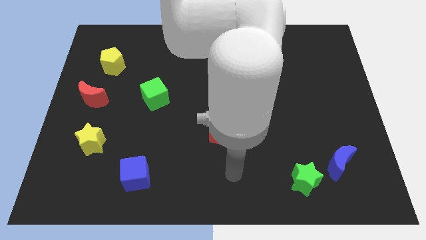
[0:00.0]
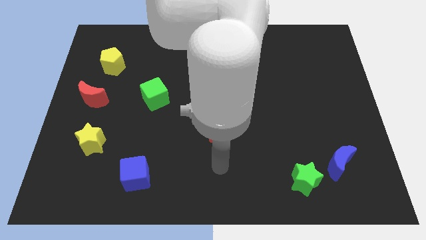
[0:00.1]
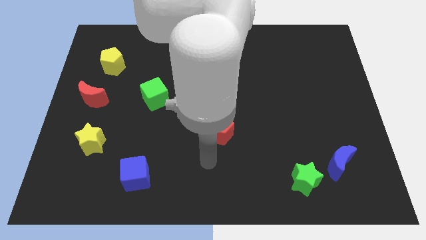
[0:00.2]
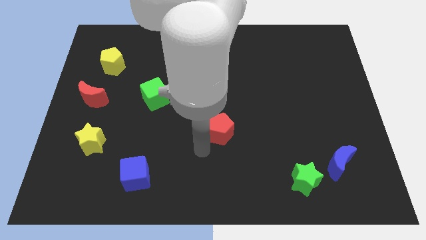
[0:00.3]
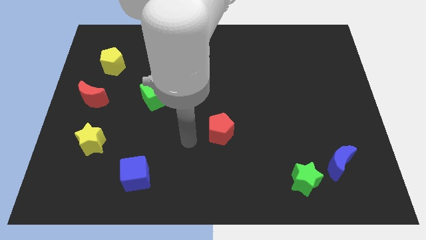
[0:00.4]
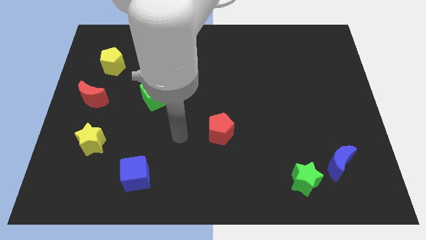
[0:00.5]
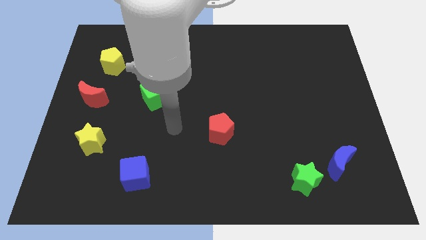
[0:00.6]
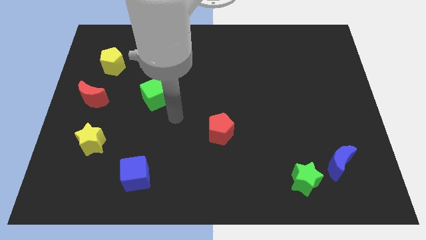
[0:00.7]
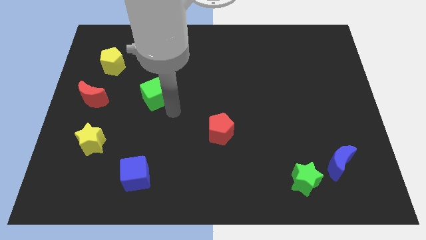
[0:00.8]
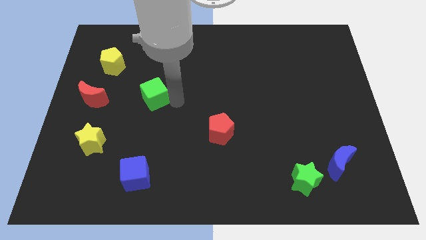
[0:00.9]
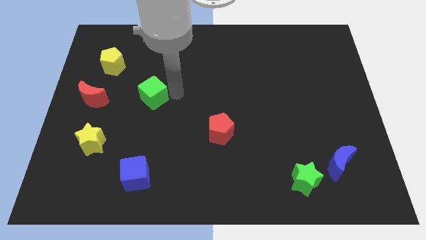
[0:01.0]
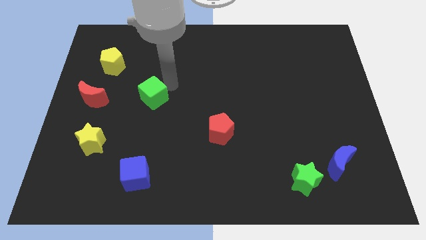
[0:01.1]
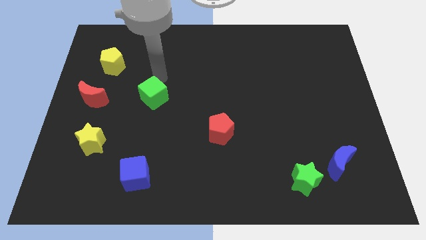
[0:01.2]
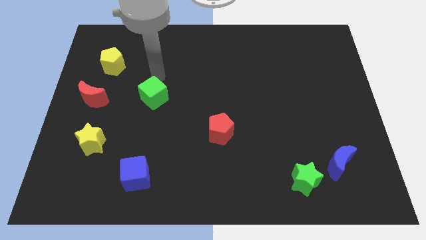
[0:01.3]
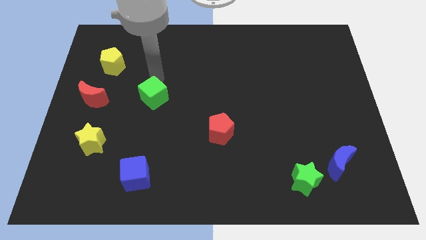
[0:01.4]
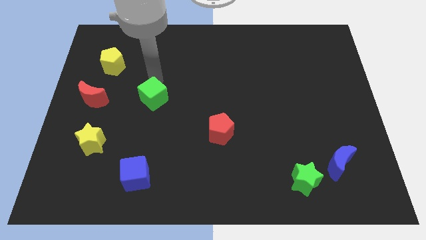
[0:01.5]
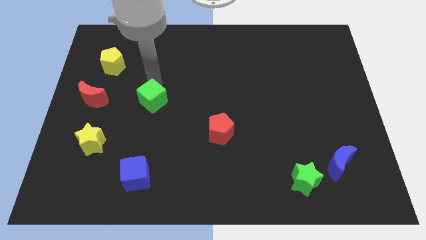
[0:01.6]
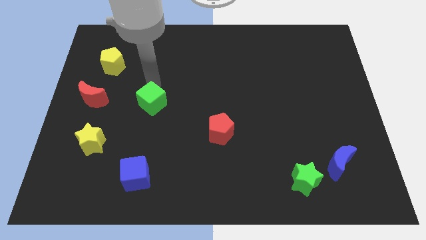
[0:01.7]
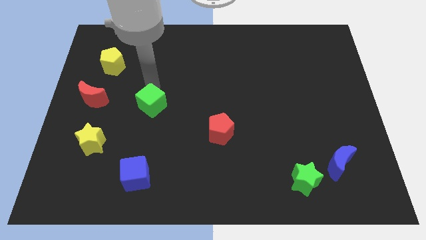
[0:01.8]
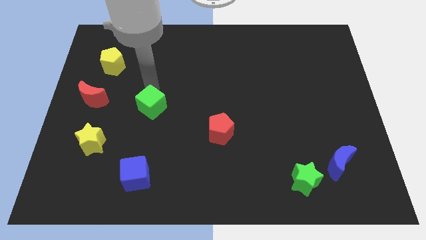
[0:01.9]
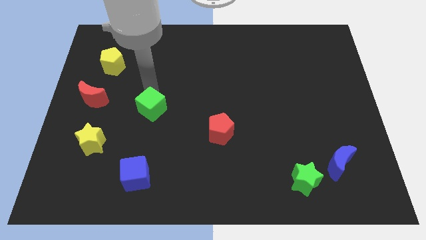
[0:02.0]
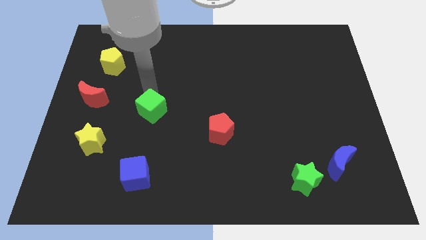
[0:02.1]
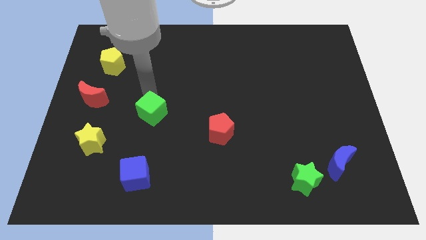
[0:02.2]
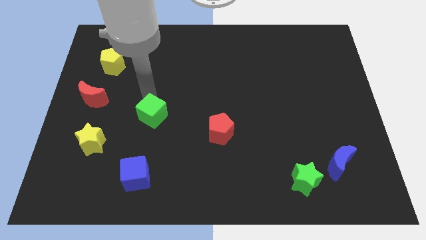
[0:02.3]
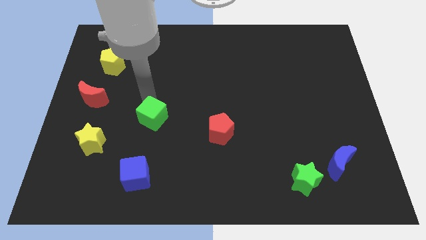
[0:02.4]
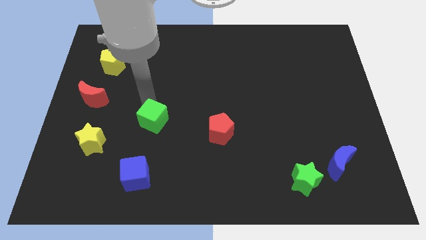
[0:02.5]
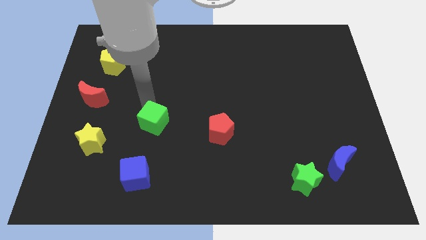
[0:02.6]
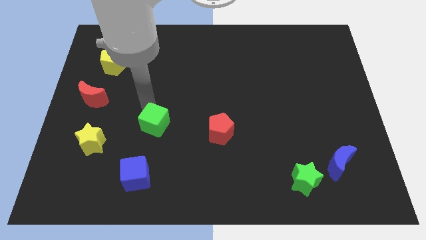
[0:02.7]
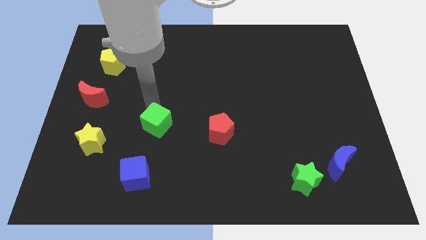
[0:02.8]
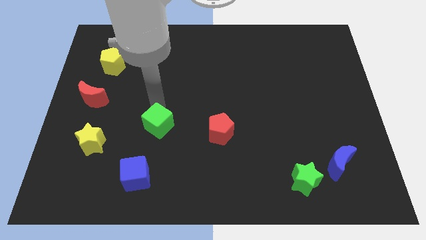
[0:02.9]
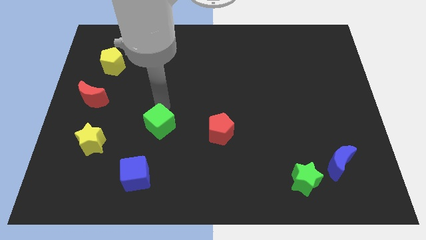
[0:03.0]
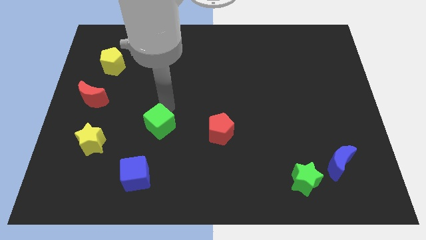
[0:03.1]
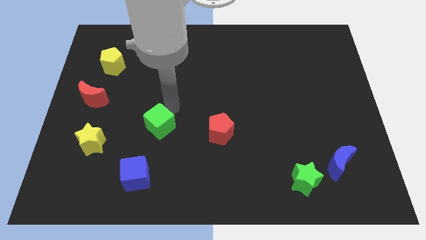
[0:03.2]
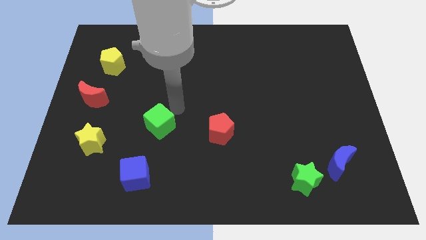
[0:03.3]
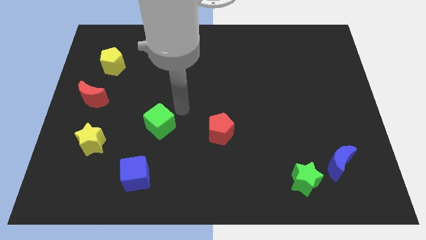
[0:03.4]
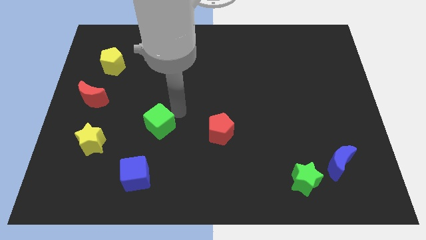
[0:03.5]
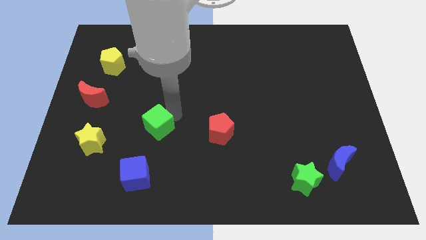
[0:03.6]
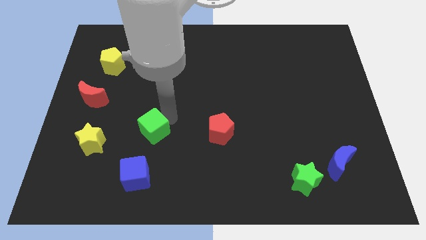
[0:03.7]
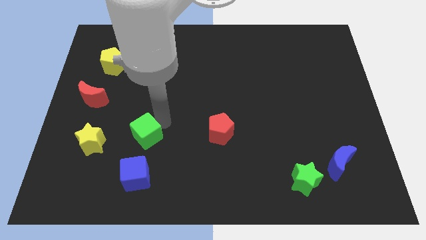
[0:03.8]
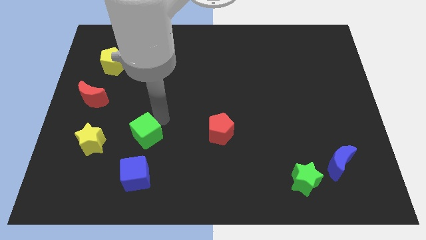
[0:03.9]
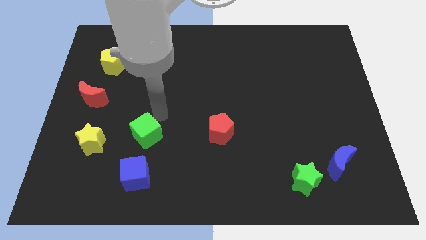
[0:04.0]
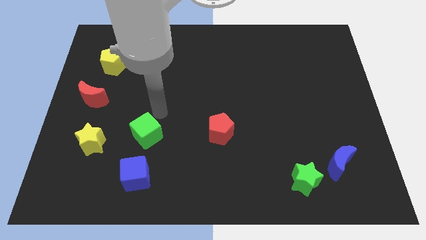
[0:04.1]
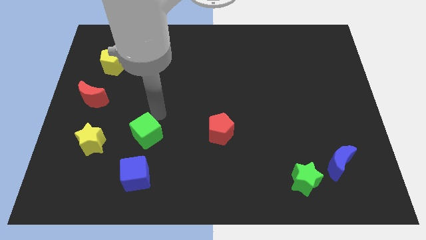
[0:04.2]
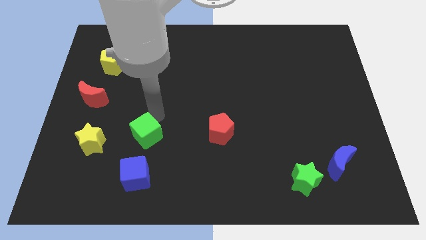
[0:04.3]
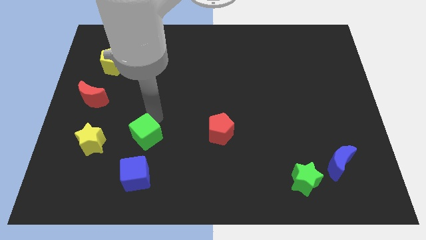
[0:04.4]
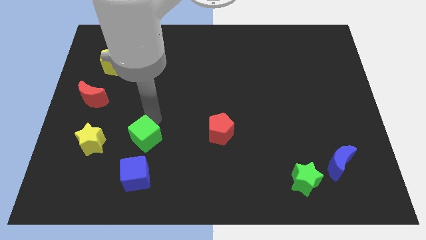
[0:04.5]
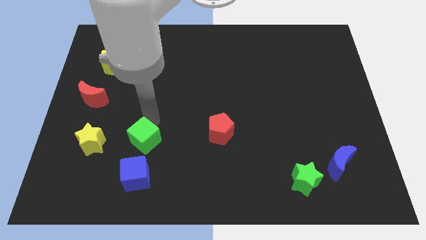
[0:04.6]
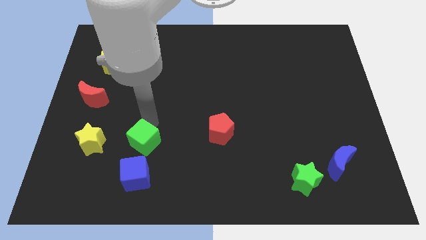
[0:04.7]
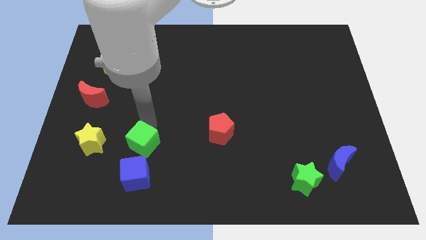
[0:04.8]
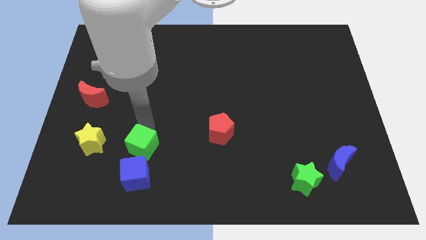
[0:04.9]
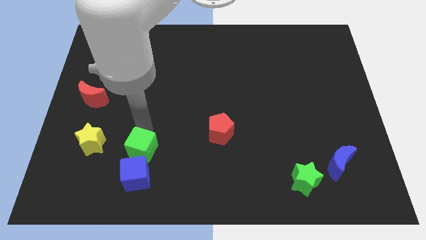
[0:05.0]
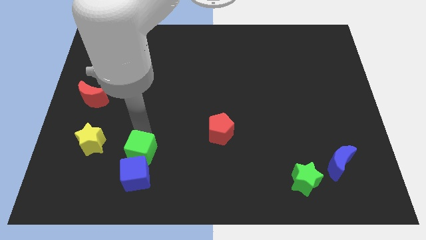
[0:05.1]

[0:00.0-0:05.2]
slide the green cube to the blue cube

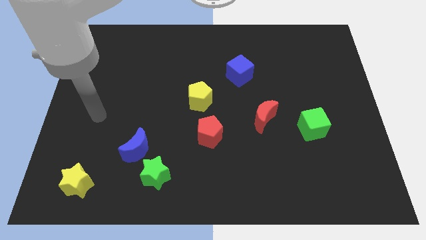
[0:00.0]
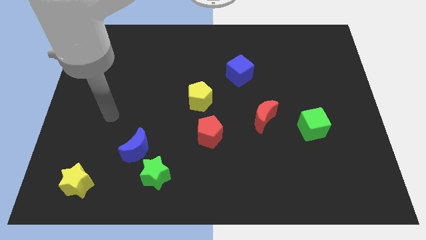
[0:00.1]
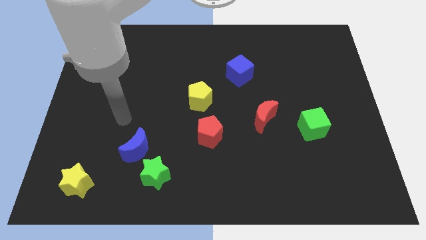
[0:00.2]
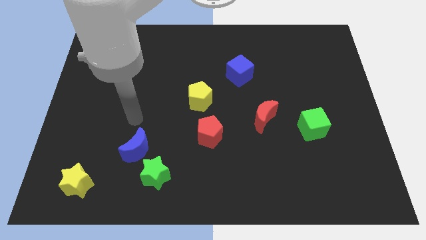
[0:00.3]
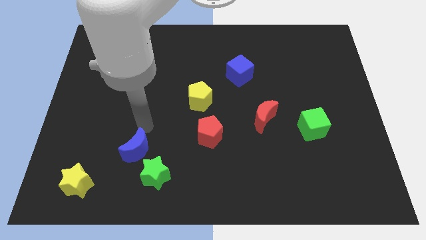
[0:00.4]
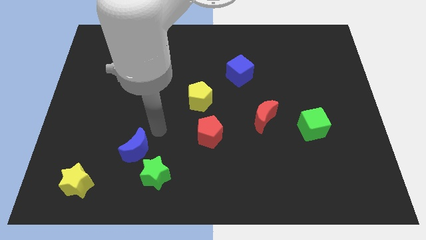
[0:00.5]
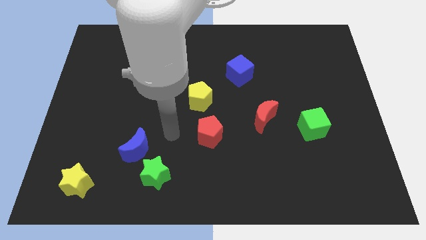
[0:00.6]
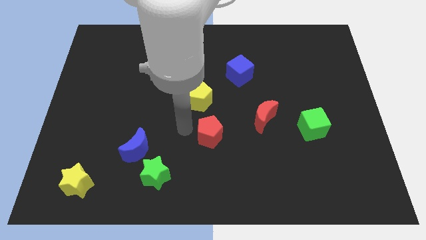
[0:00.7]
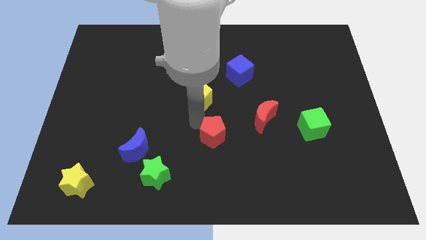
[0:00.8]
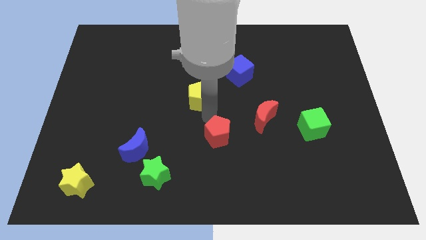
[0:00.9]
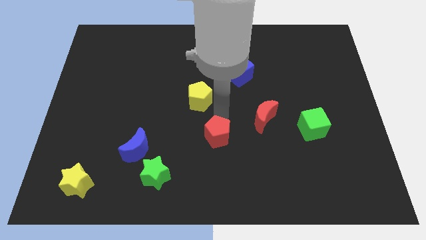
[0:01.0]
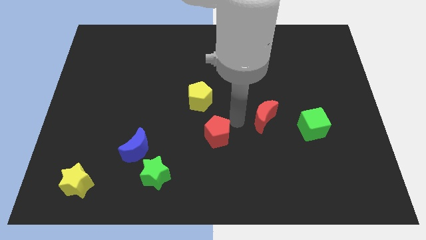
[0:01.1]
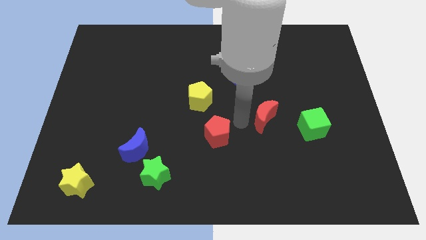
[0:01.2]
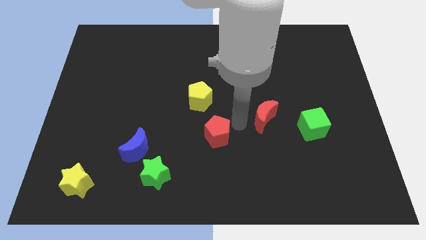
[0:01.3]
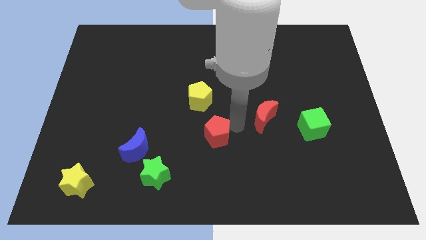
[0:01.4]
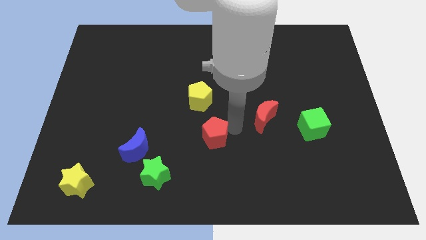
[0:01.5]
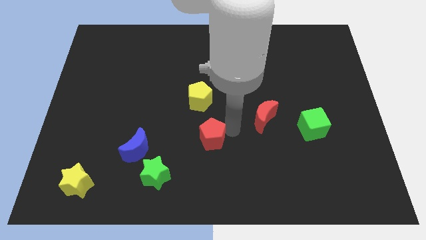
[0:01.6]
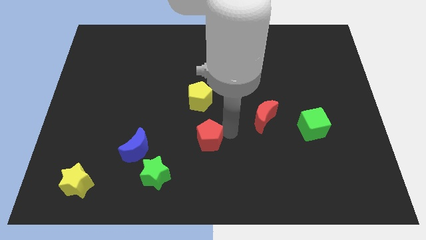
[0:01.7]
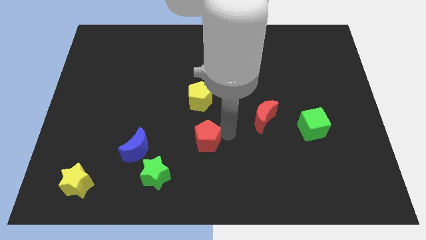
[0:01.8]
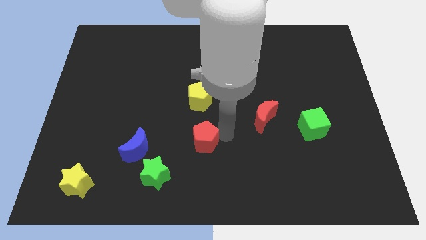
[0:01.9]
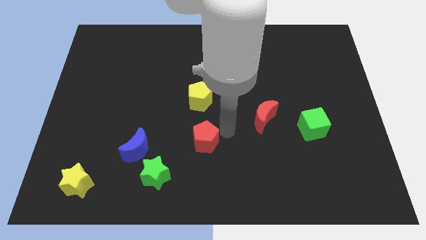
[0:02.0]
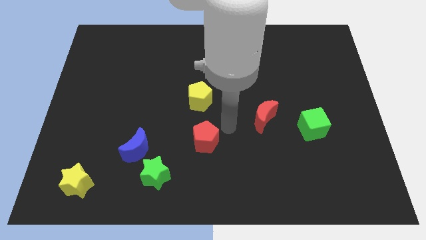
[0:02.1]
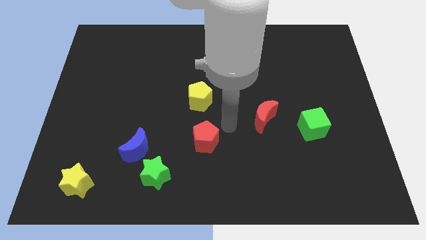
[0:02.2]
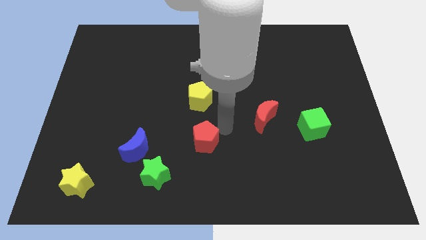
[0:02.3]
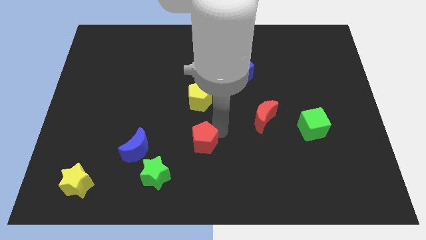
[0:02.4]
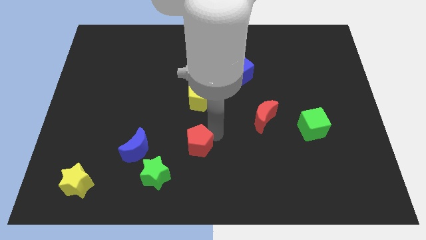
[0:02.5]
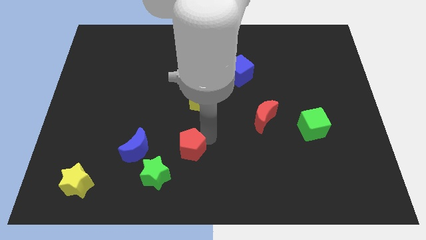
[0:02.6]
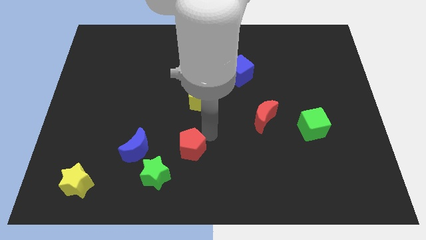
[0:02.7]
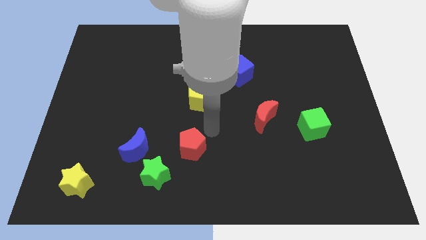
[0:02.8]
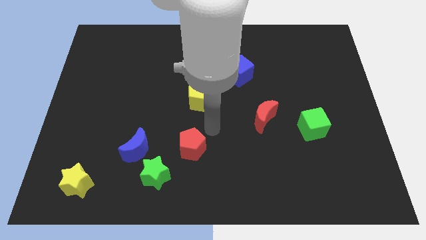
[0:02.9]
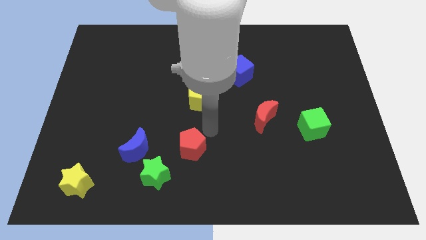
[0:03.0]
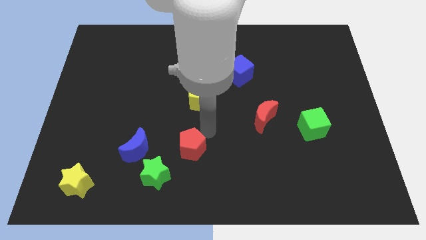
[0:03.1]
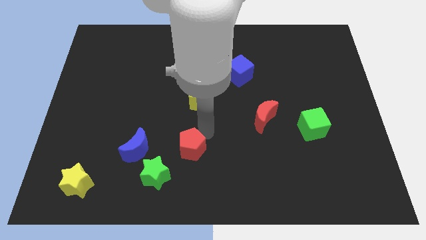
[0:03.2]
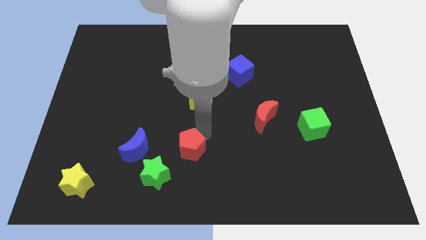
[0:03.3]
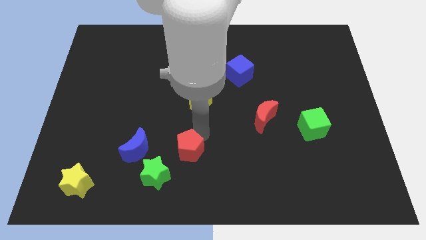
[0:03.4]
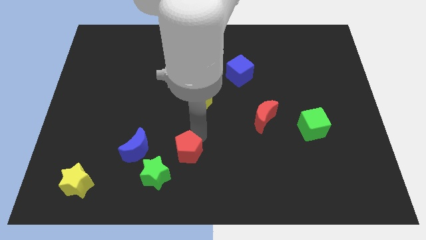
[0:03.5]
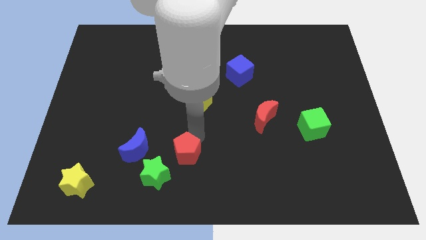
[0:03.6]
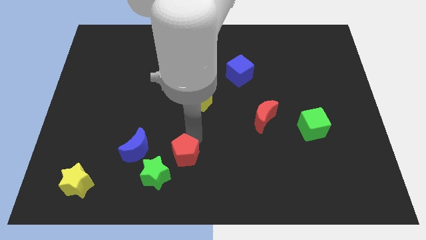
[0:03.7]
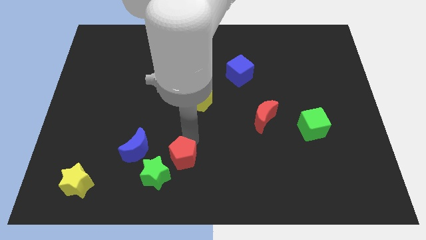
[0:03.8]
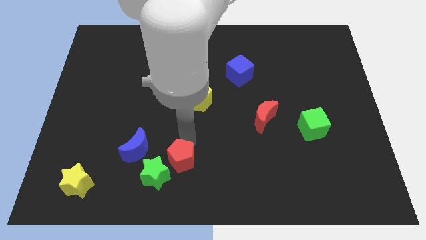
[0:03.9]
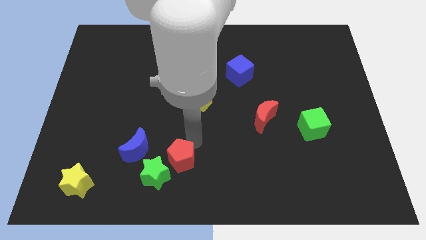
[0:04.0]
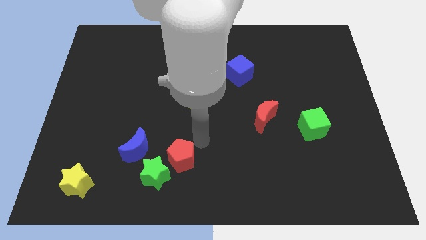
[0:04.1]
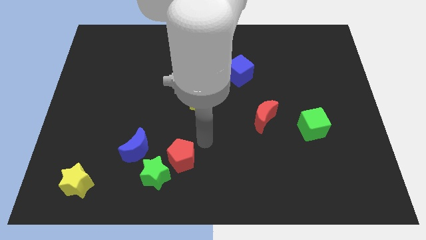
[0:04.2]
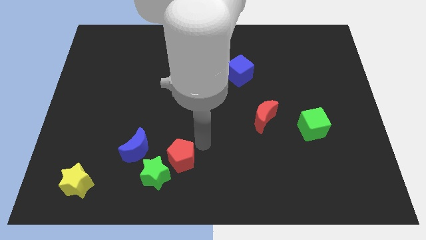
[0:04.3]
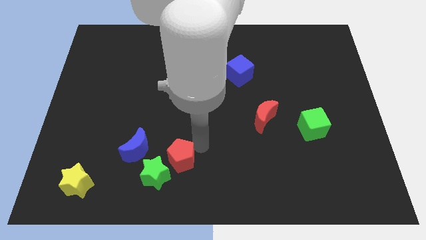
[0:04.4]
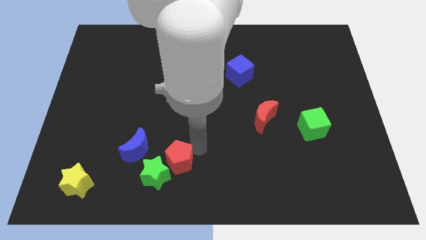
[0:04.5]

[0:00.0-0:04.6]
move the red pentagon towards the green star
